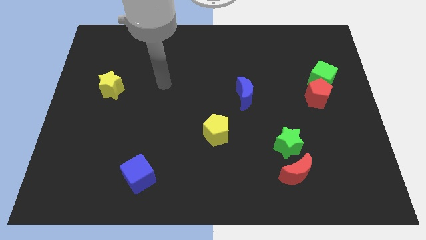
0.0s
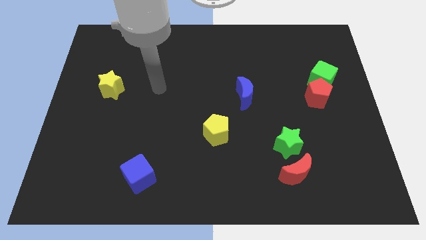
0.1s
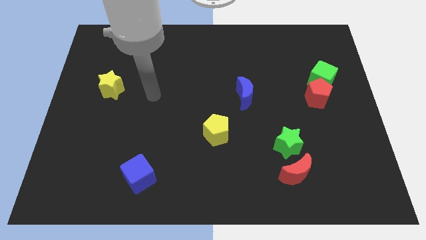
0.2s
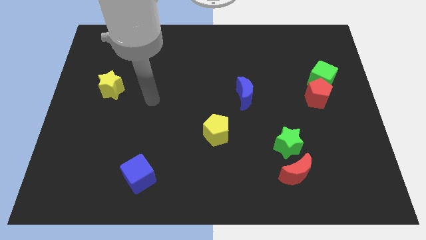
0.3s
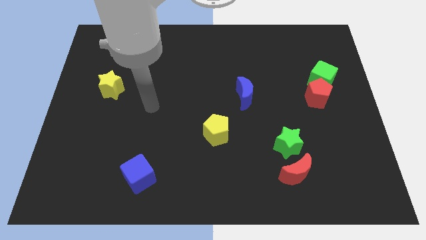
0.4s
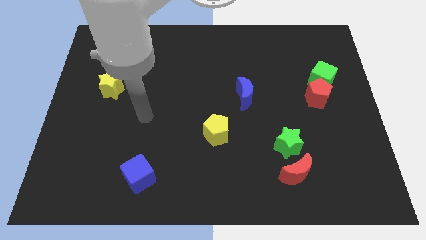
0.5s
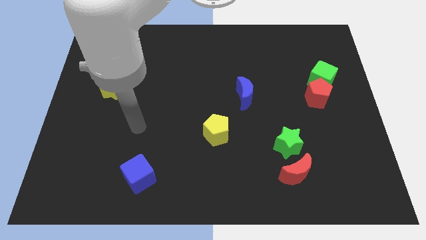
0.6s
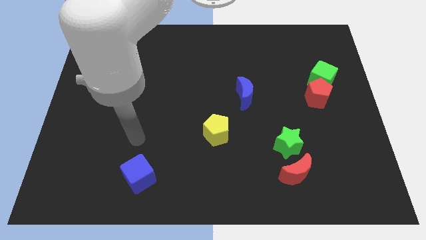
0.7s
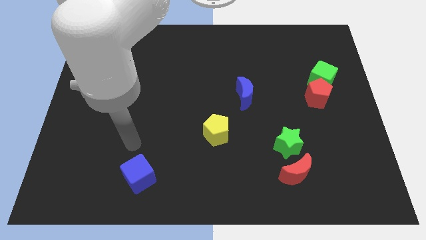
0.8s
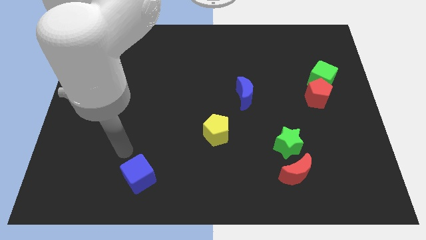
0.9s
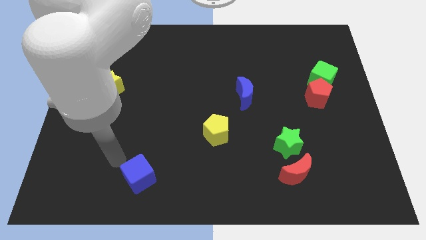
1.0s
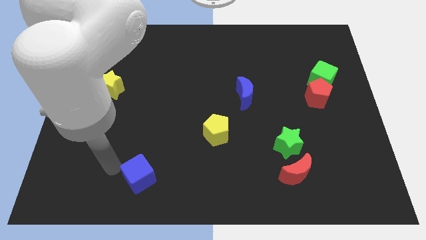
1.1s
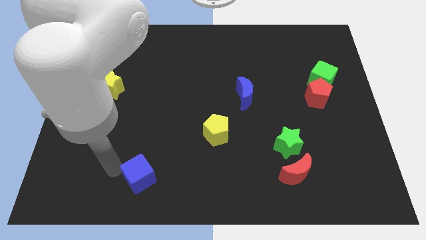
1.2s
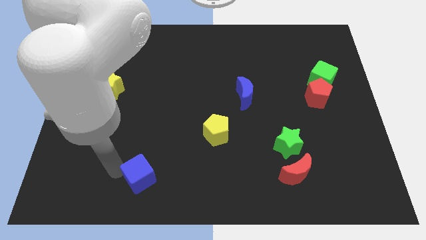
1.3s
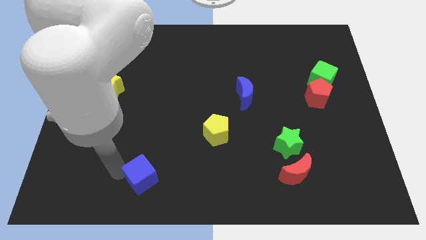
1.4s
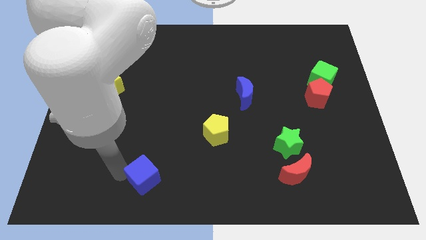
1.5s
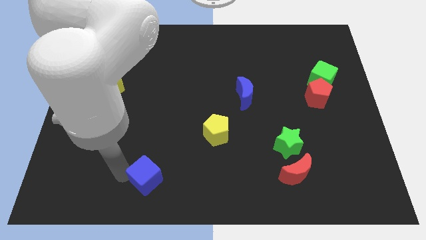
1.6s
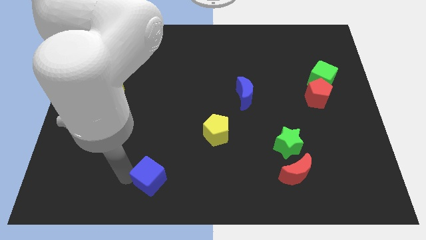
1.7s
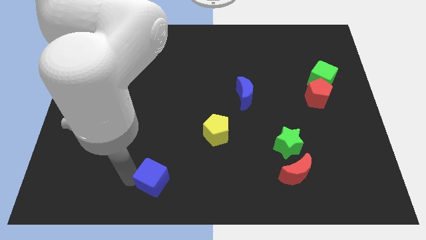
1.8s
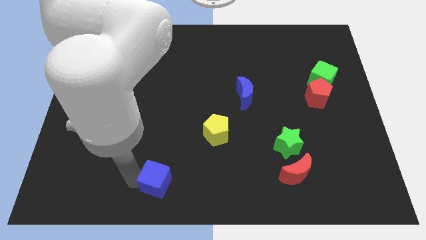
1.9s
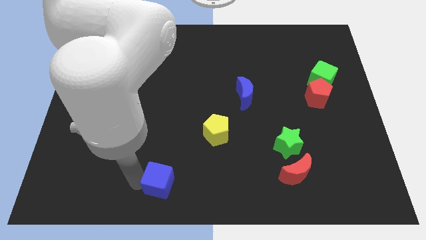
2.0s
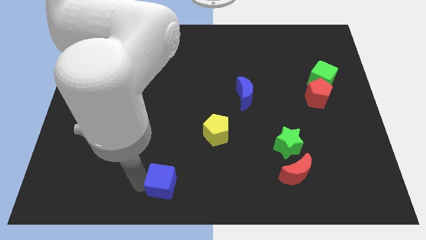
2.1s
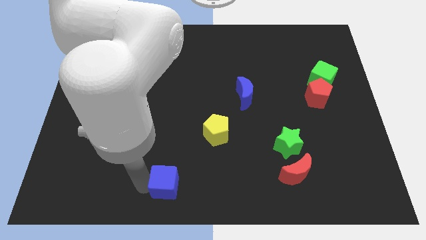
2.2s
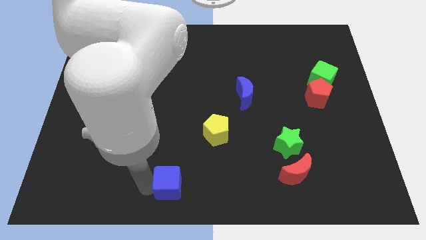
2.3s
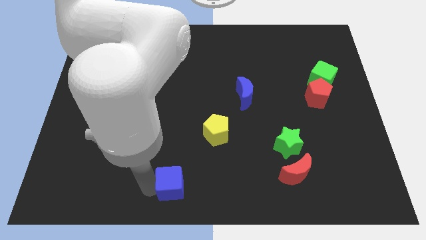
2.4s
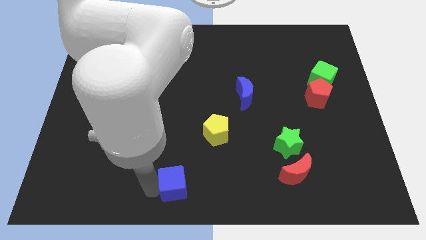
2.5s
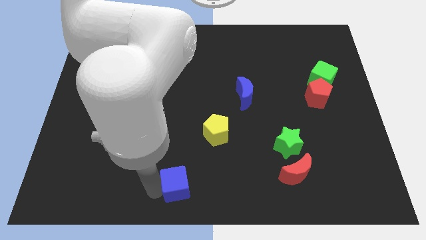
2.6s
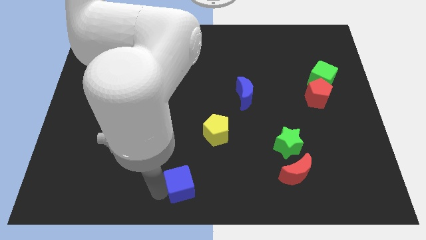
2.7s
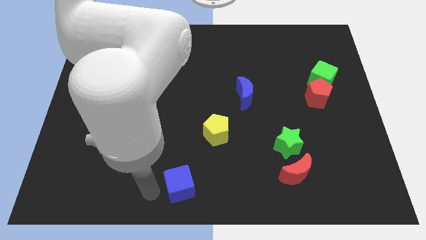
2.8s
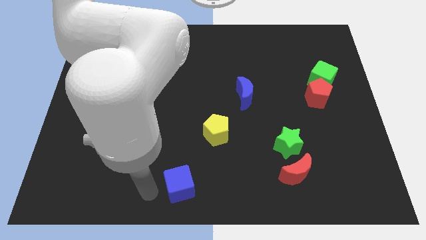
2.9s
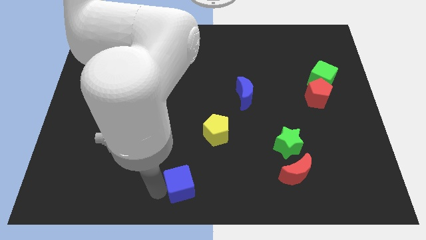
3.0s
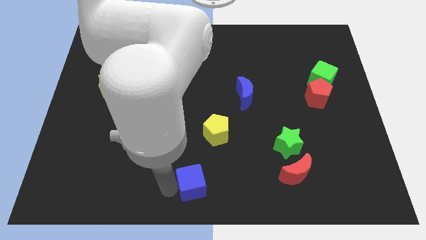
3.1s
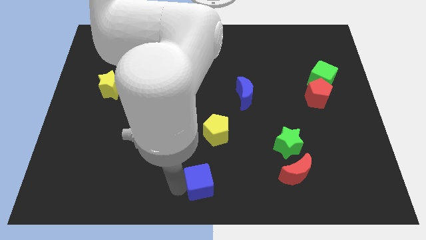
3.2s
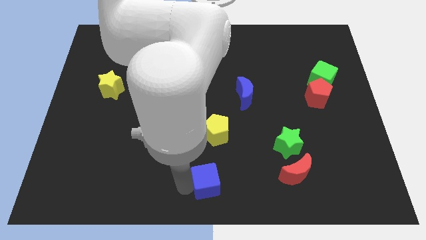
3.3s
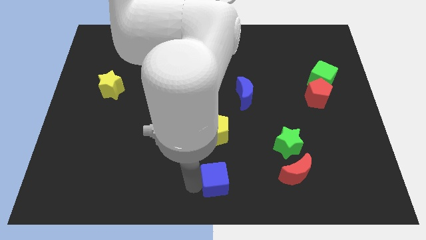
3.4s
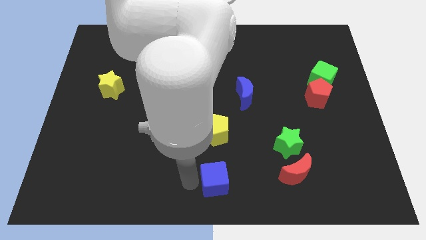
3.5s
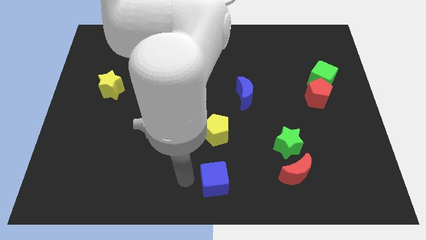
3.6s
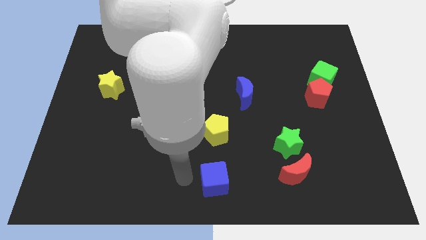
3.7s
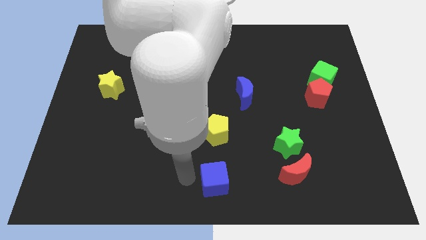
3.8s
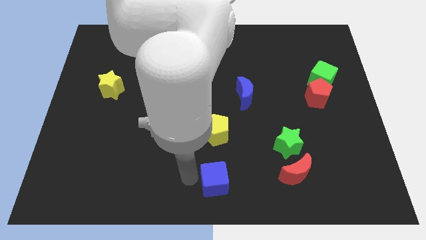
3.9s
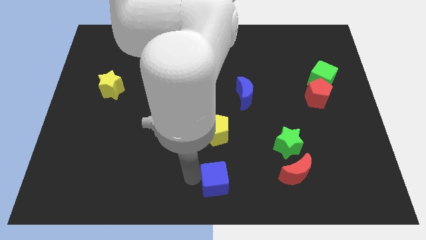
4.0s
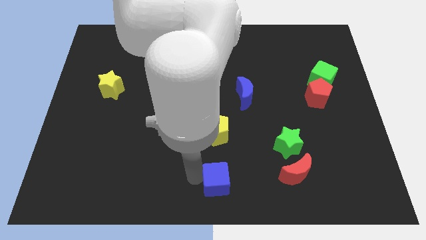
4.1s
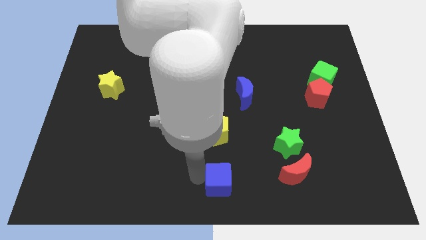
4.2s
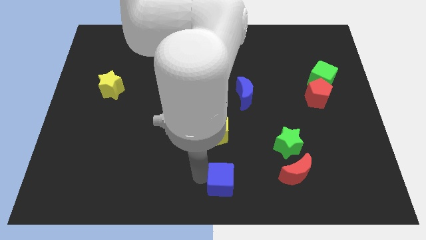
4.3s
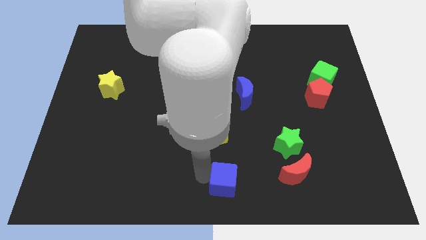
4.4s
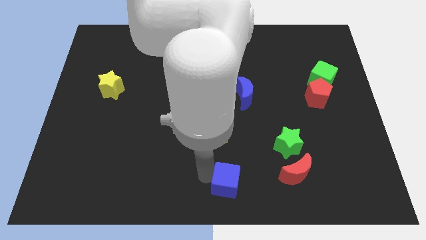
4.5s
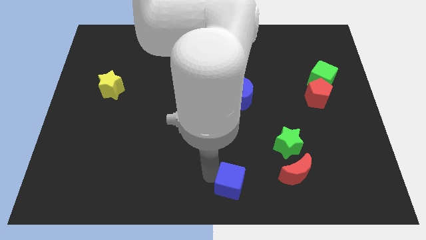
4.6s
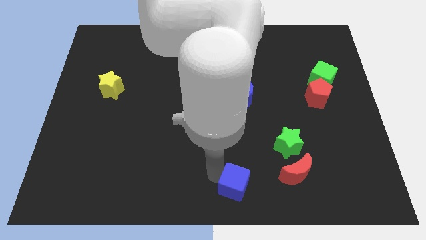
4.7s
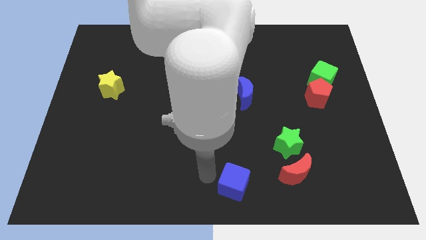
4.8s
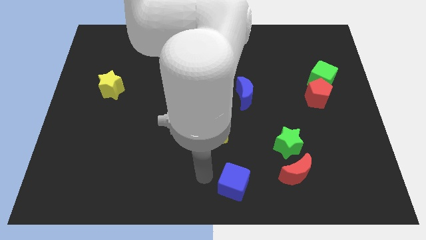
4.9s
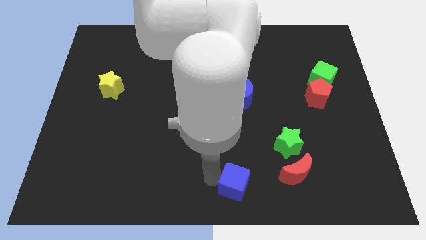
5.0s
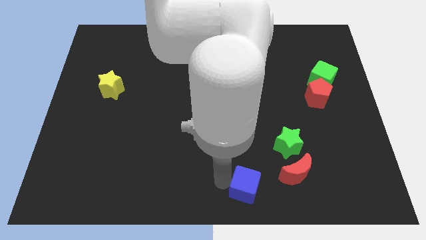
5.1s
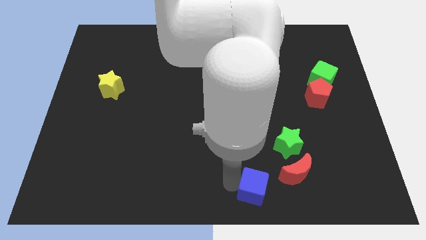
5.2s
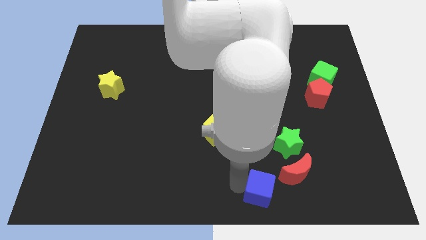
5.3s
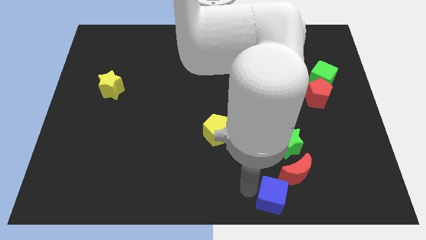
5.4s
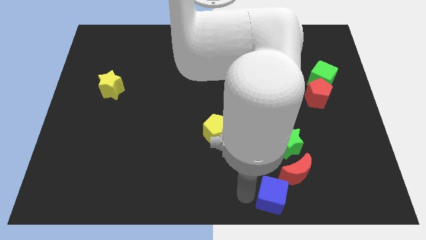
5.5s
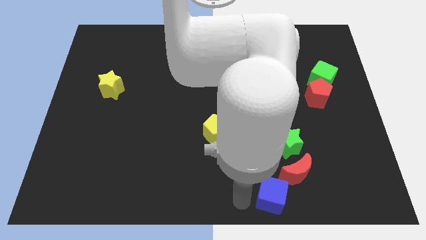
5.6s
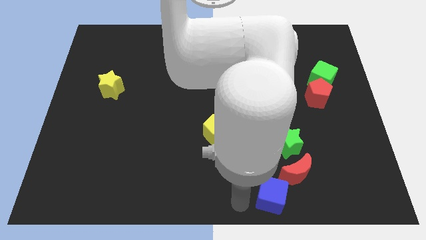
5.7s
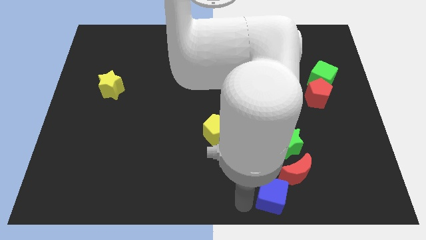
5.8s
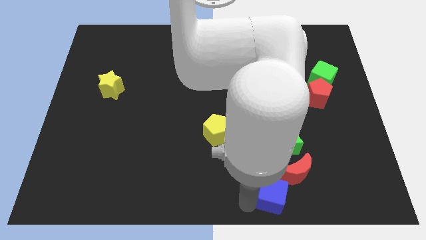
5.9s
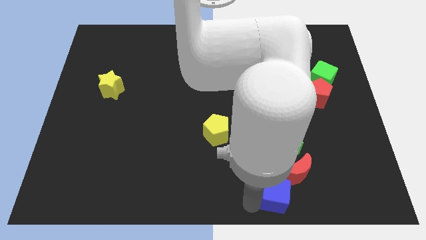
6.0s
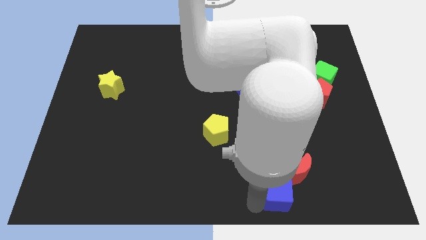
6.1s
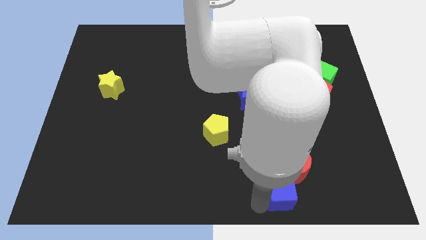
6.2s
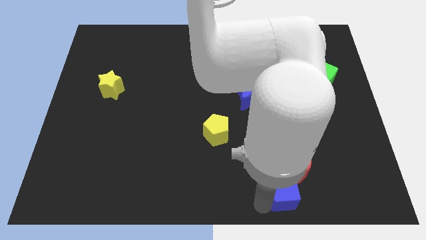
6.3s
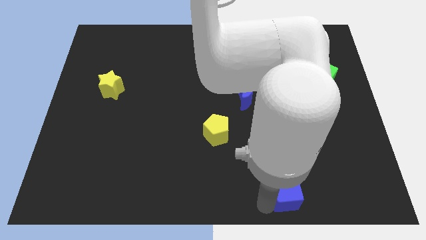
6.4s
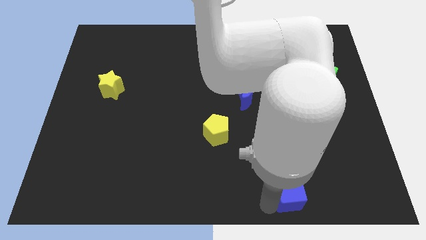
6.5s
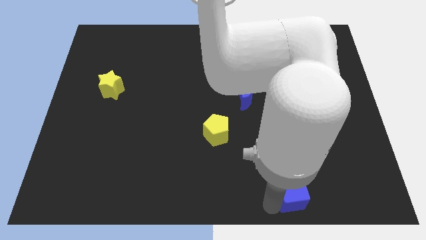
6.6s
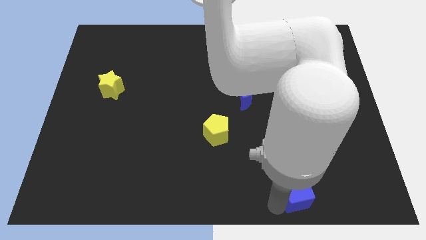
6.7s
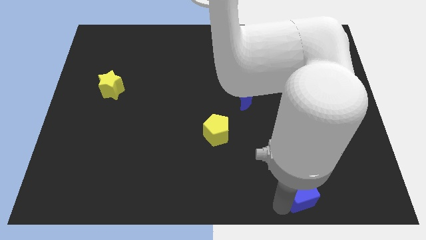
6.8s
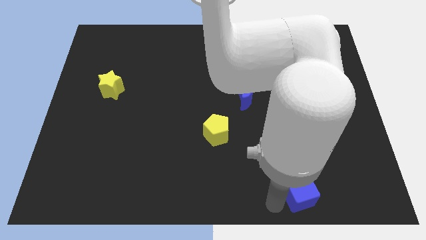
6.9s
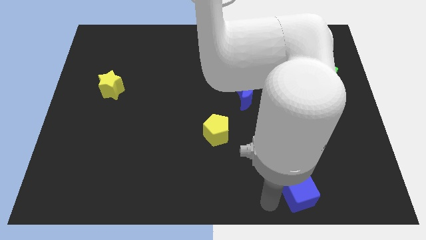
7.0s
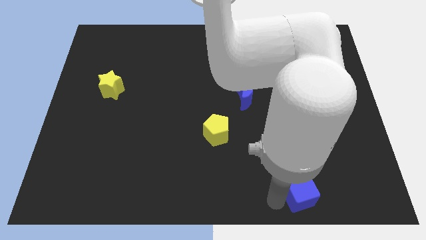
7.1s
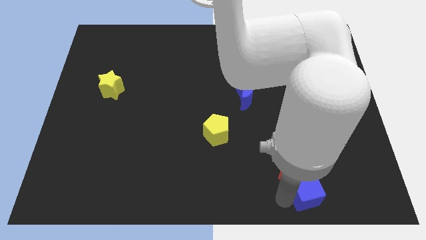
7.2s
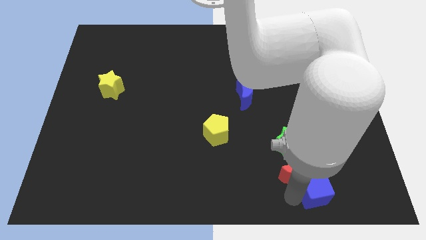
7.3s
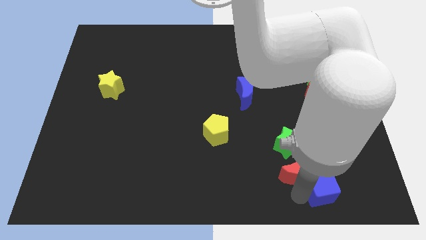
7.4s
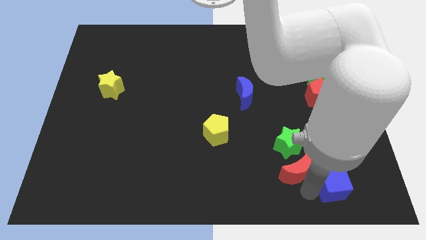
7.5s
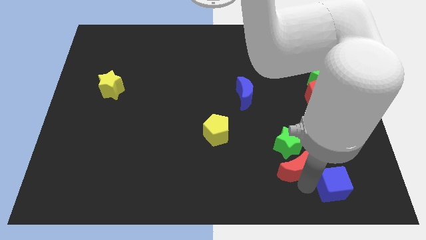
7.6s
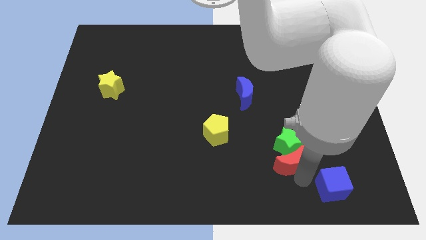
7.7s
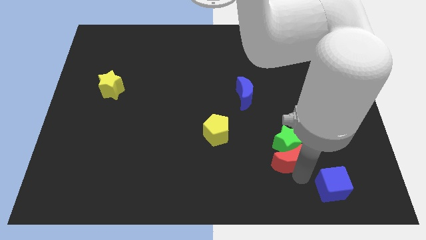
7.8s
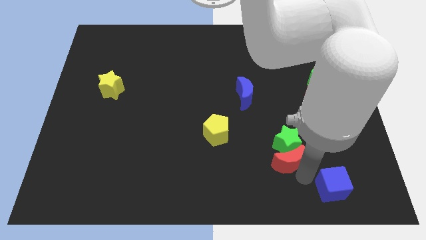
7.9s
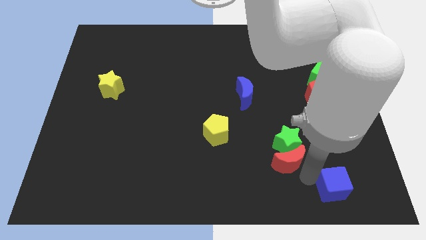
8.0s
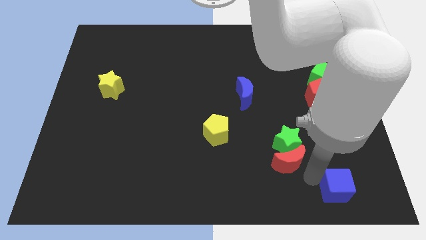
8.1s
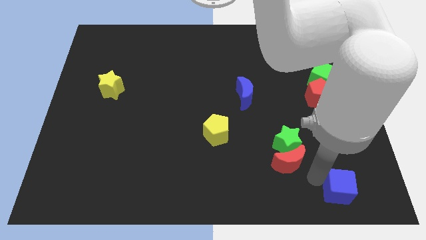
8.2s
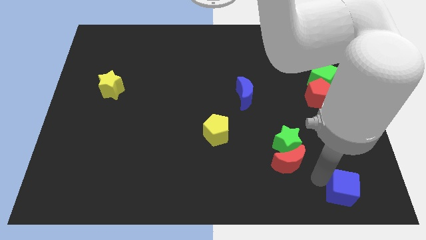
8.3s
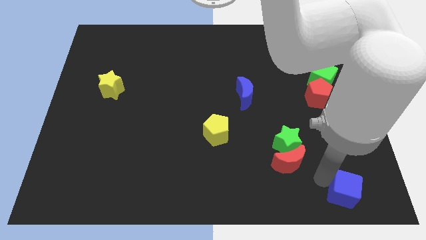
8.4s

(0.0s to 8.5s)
push the blue cube to the bottom right
